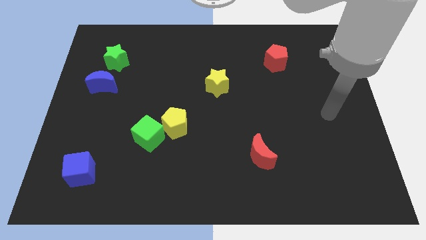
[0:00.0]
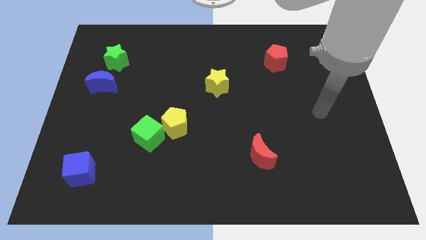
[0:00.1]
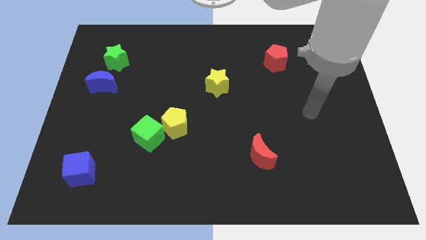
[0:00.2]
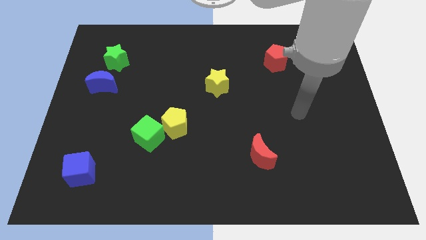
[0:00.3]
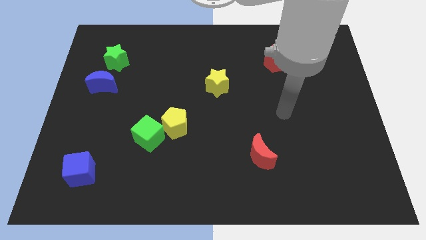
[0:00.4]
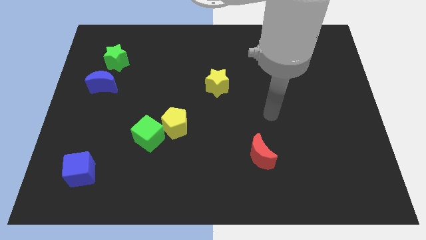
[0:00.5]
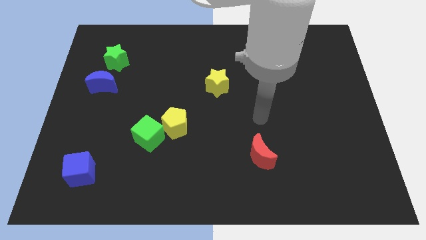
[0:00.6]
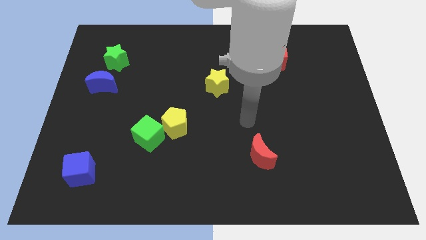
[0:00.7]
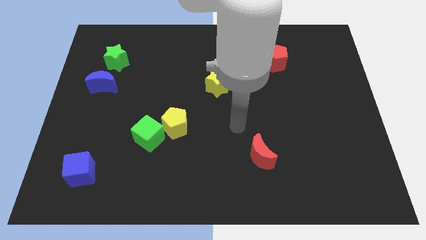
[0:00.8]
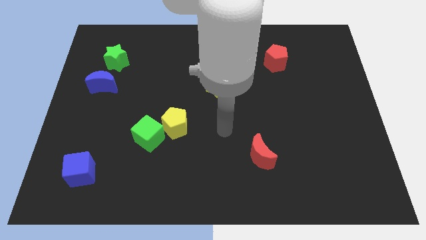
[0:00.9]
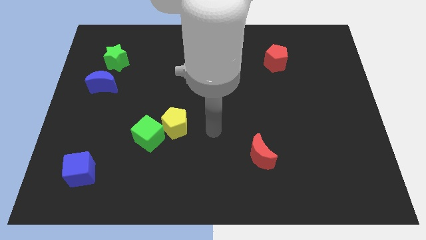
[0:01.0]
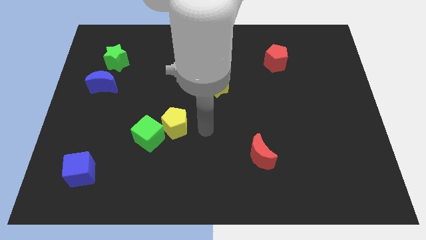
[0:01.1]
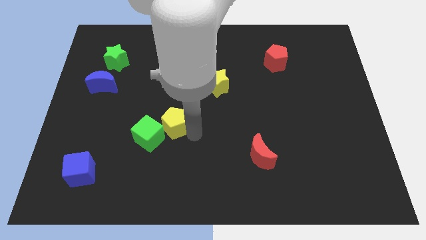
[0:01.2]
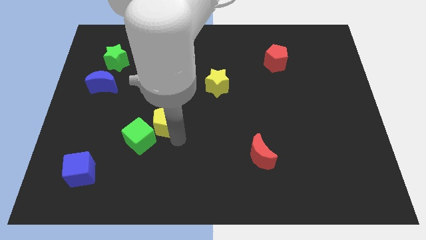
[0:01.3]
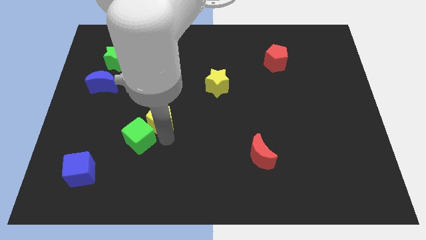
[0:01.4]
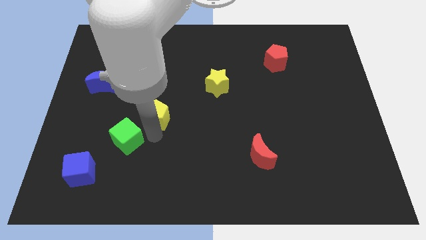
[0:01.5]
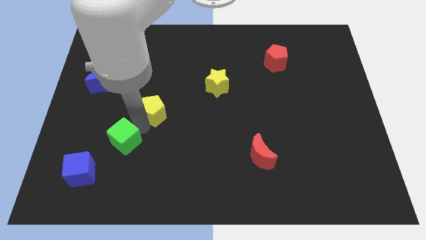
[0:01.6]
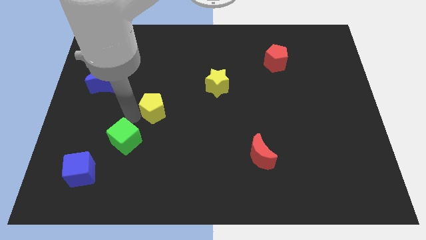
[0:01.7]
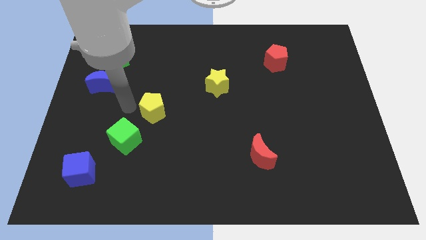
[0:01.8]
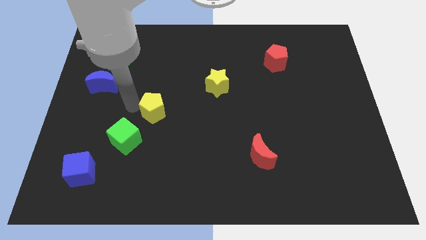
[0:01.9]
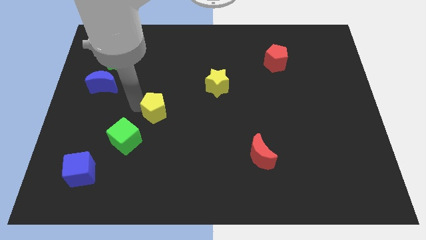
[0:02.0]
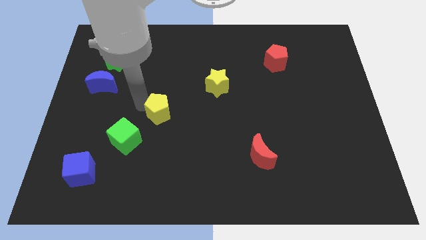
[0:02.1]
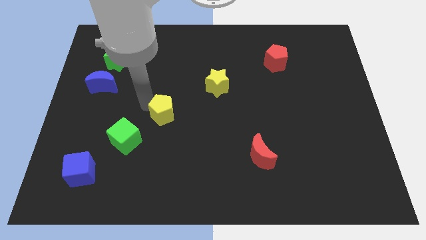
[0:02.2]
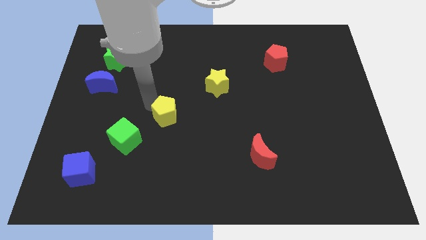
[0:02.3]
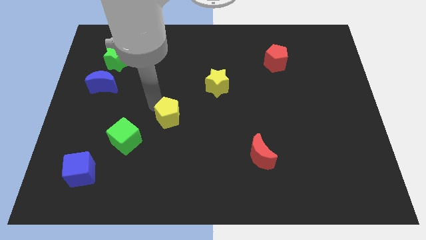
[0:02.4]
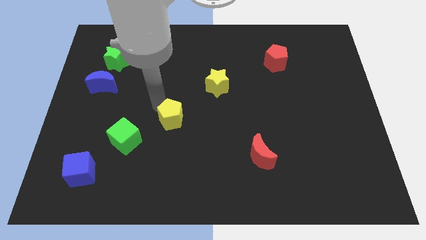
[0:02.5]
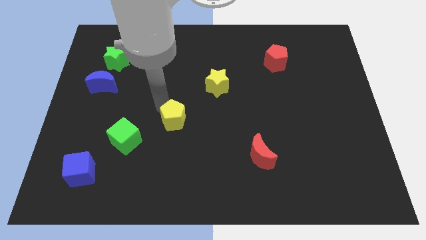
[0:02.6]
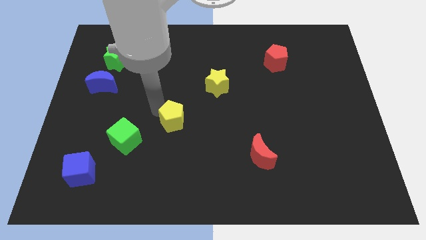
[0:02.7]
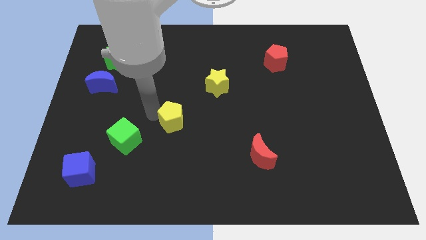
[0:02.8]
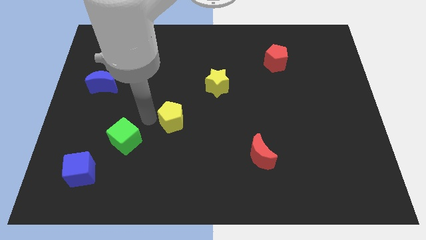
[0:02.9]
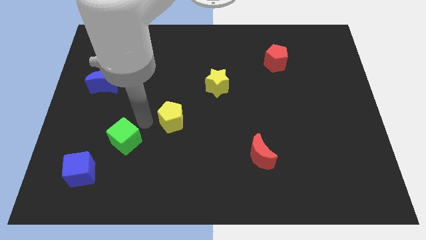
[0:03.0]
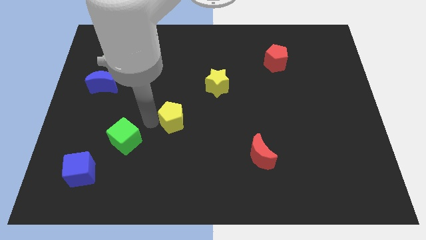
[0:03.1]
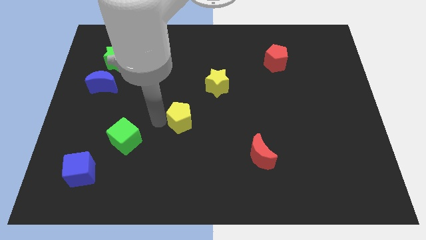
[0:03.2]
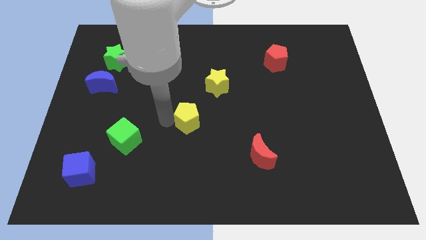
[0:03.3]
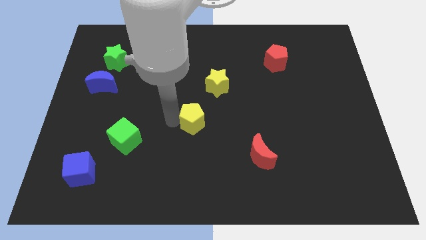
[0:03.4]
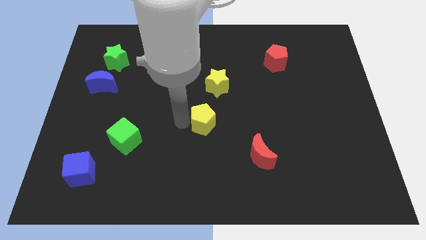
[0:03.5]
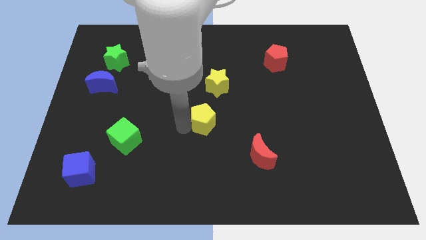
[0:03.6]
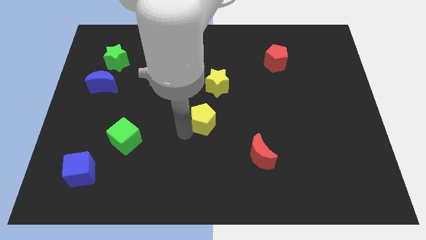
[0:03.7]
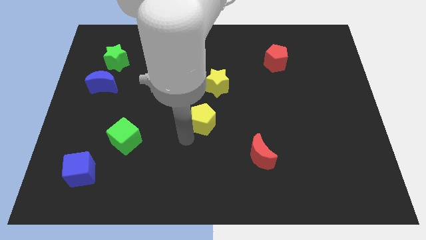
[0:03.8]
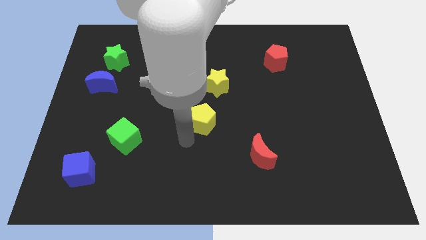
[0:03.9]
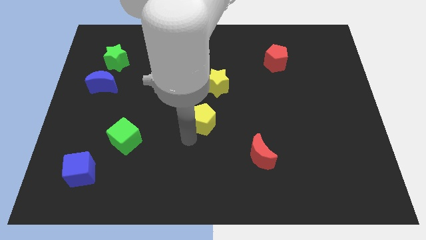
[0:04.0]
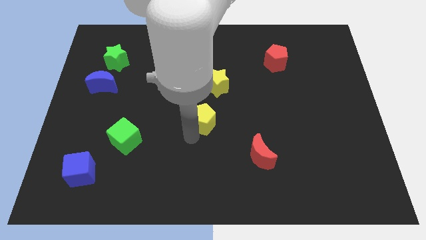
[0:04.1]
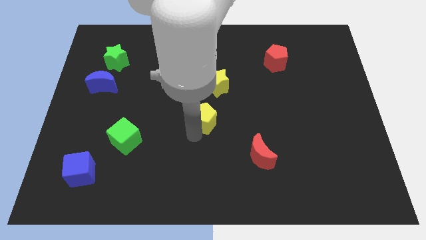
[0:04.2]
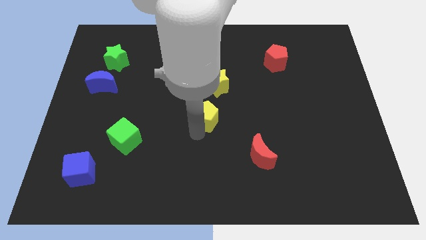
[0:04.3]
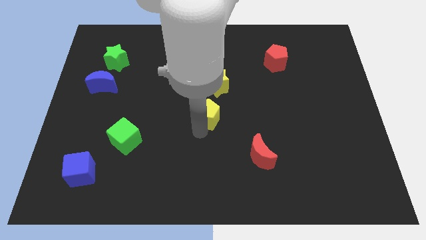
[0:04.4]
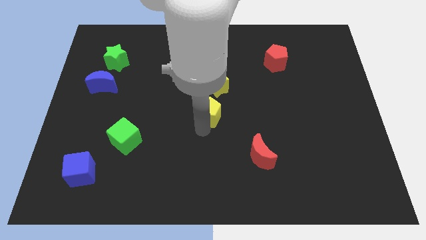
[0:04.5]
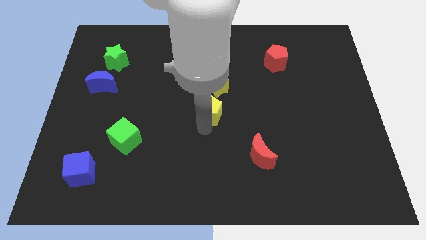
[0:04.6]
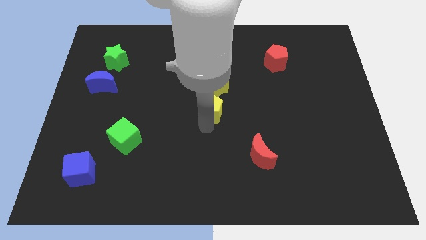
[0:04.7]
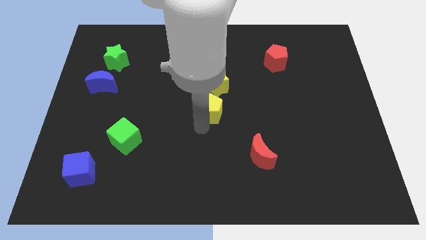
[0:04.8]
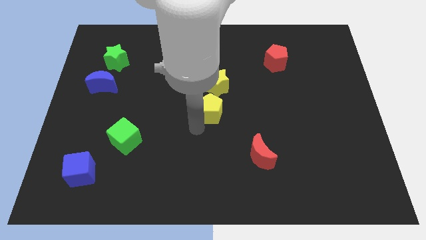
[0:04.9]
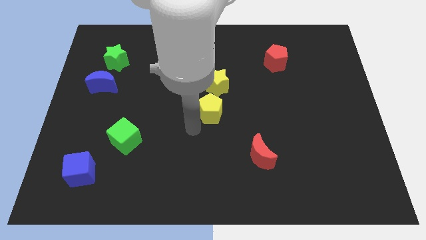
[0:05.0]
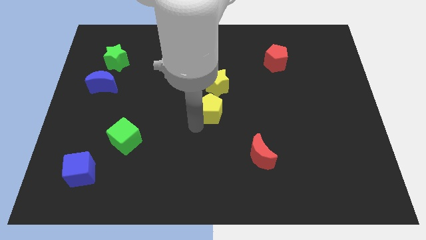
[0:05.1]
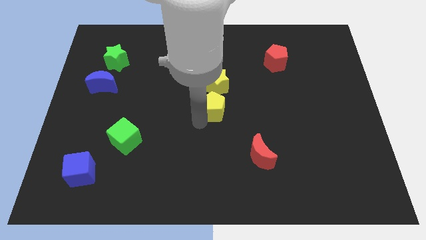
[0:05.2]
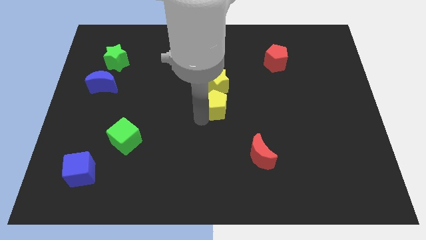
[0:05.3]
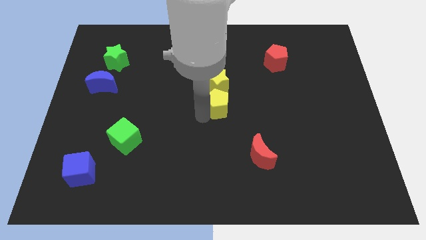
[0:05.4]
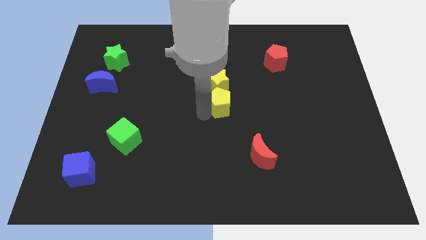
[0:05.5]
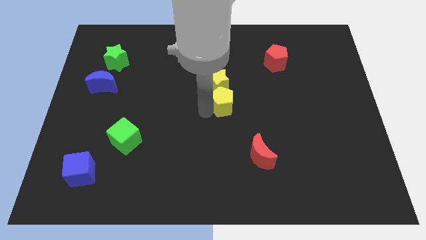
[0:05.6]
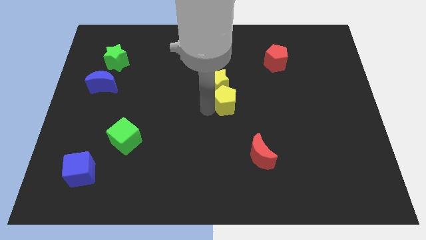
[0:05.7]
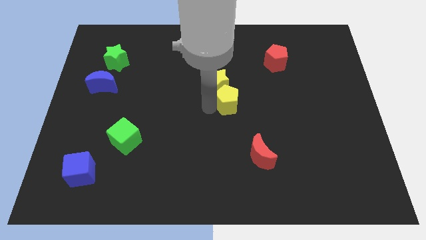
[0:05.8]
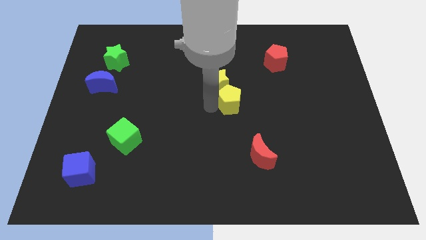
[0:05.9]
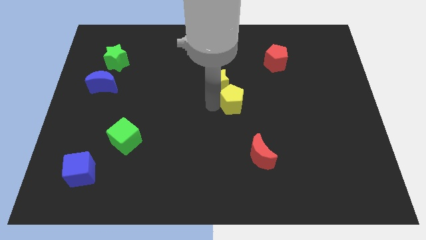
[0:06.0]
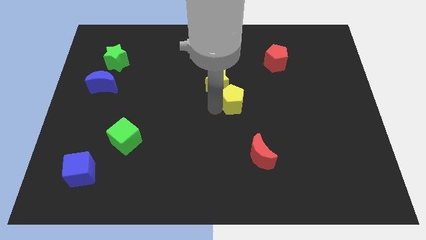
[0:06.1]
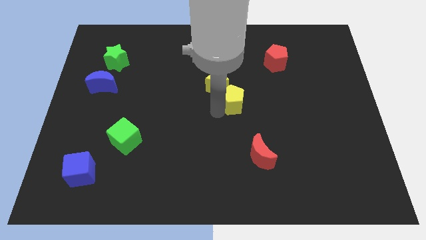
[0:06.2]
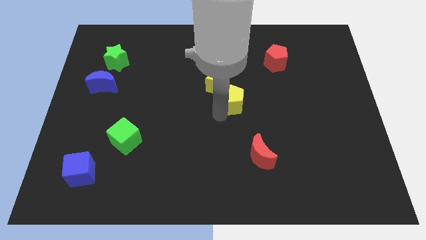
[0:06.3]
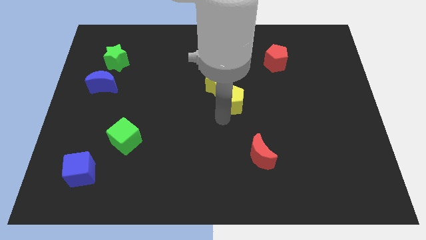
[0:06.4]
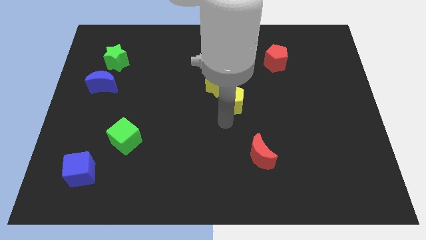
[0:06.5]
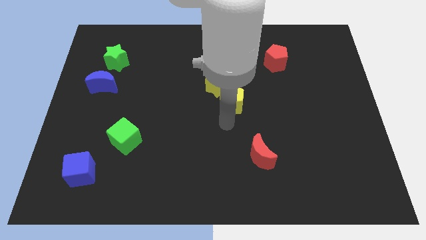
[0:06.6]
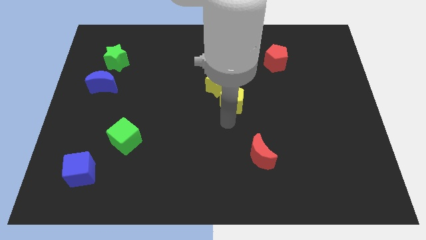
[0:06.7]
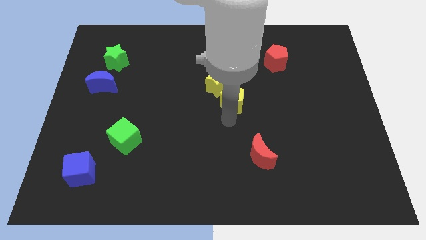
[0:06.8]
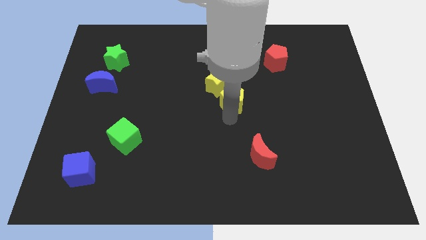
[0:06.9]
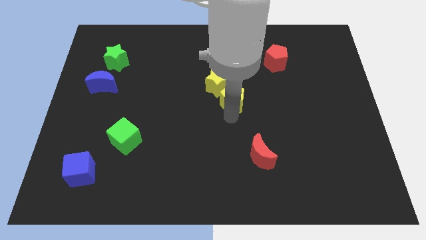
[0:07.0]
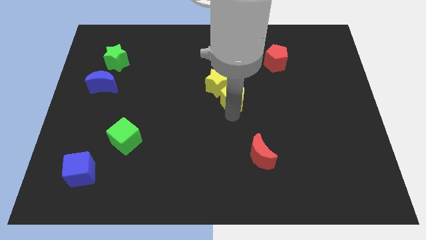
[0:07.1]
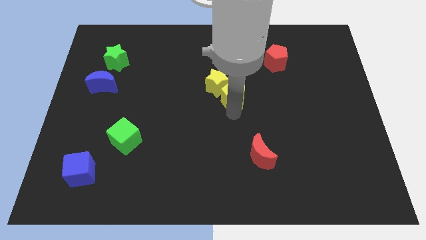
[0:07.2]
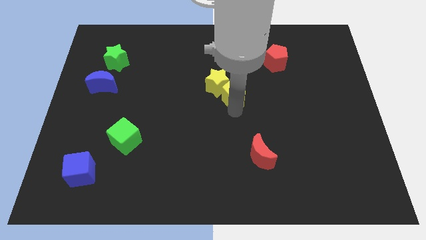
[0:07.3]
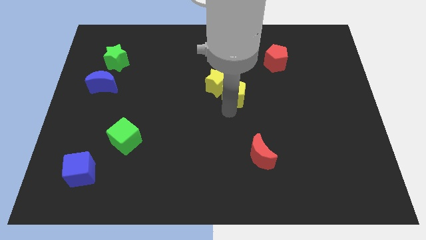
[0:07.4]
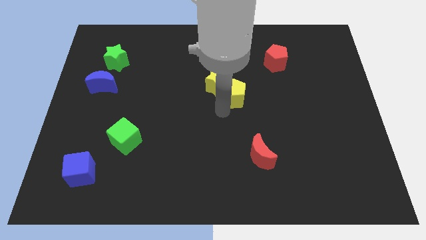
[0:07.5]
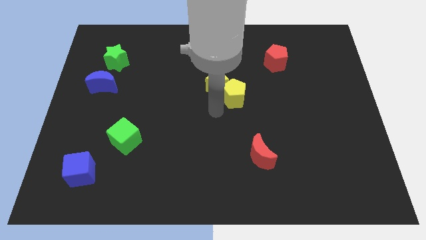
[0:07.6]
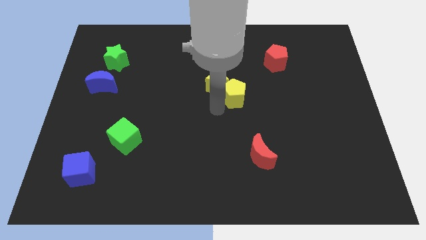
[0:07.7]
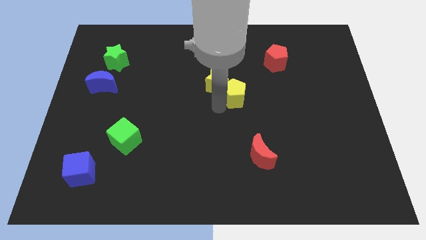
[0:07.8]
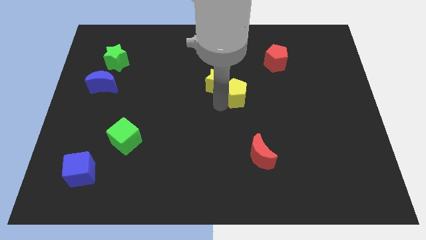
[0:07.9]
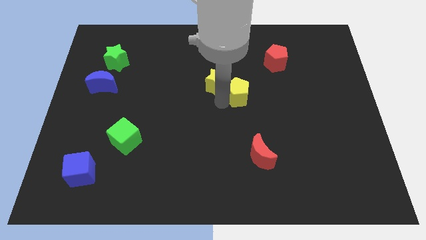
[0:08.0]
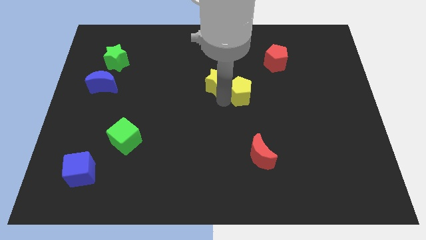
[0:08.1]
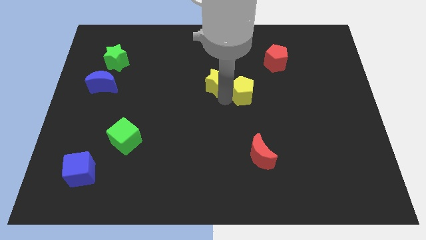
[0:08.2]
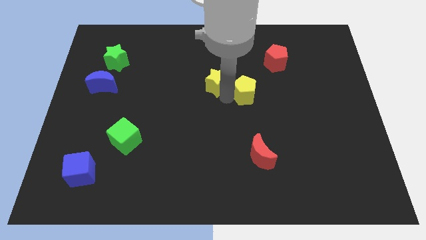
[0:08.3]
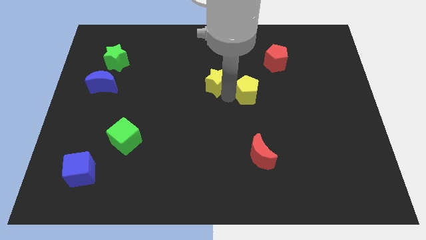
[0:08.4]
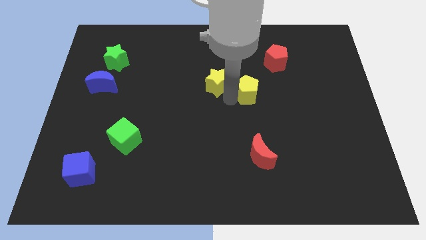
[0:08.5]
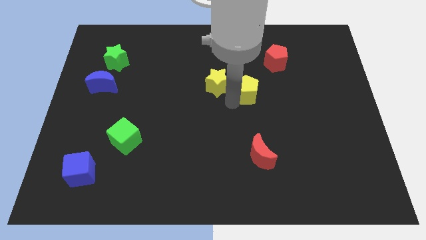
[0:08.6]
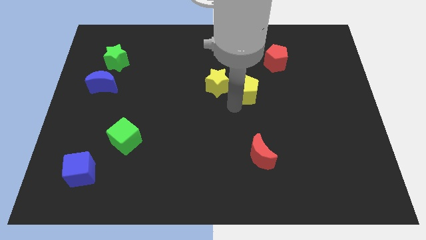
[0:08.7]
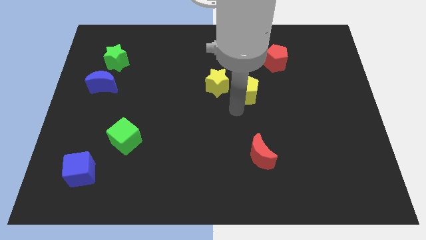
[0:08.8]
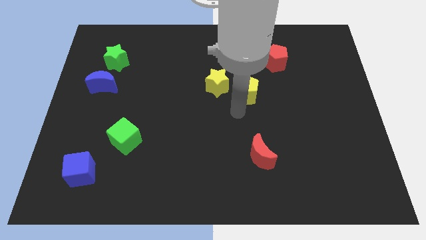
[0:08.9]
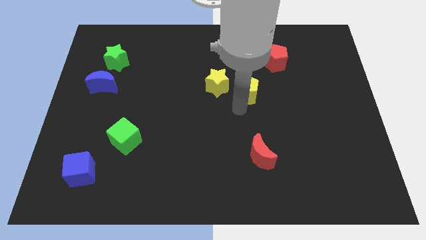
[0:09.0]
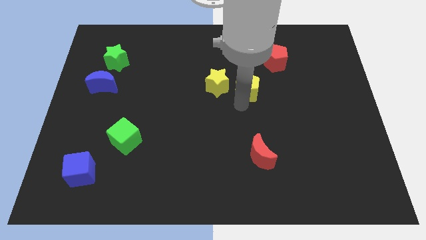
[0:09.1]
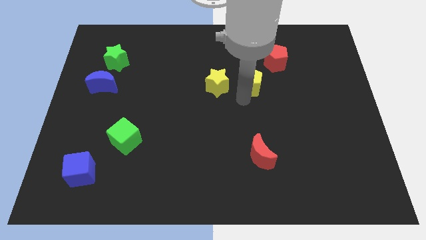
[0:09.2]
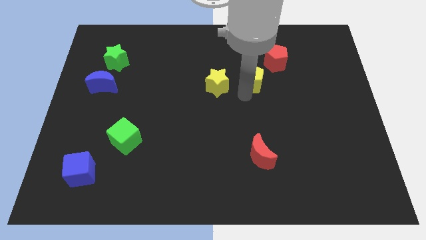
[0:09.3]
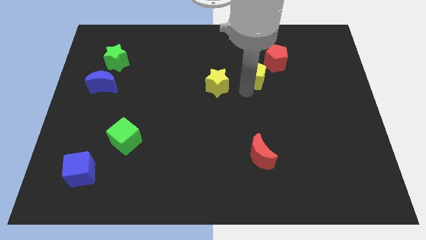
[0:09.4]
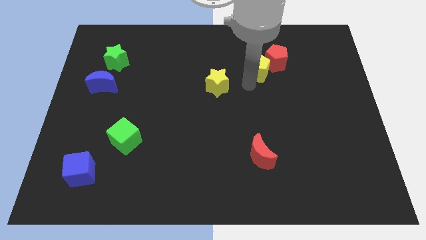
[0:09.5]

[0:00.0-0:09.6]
slide the yellow pentagon towards the red pentagon
